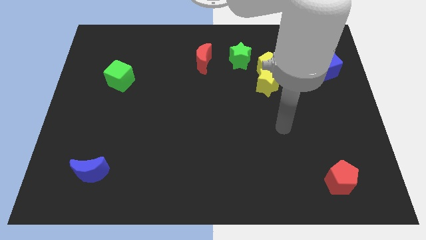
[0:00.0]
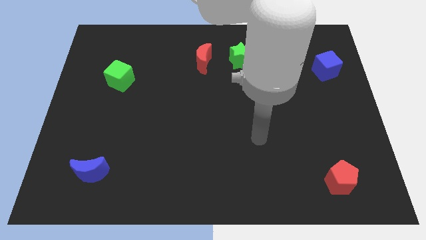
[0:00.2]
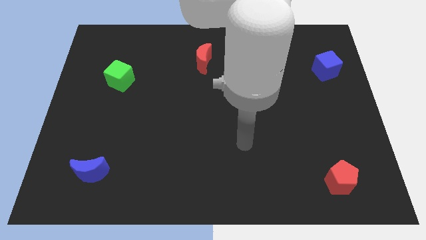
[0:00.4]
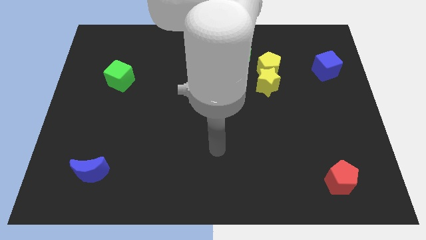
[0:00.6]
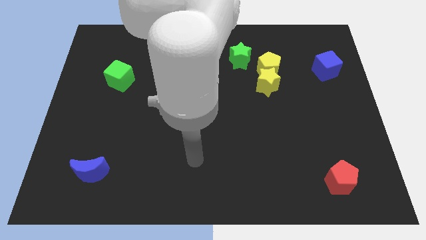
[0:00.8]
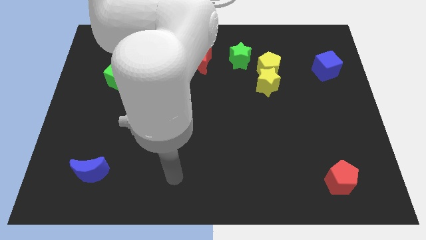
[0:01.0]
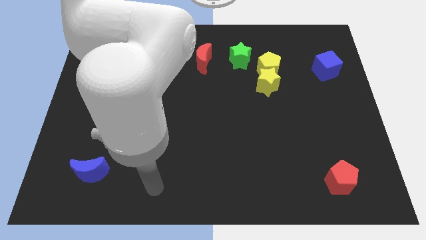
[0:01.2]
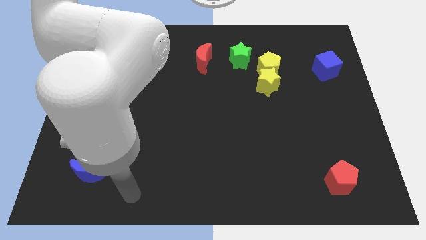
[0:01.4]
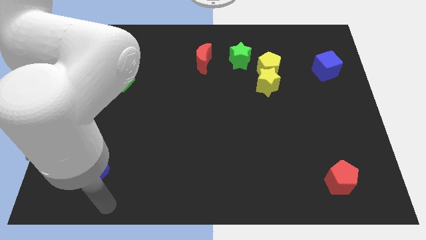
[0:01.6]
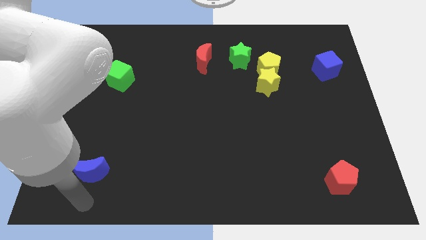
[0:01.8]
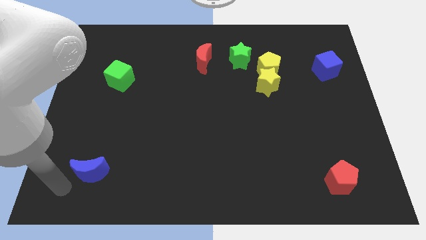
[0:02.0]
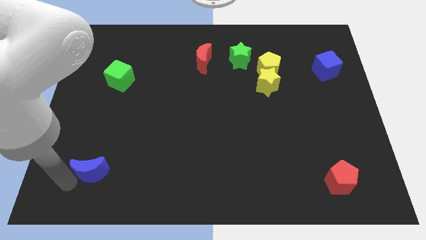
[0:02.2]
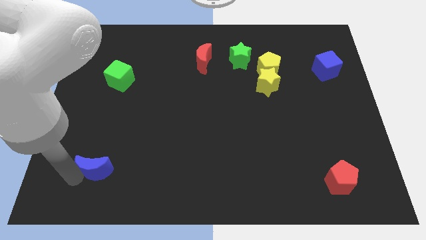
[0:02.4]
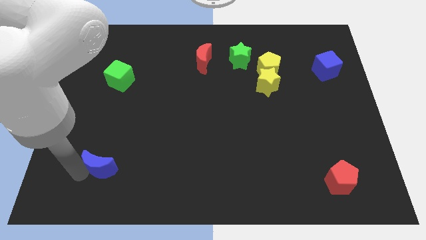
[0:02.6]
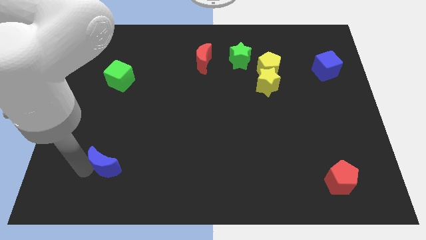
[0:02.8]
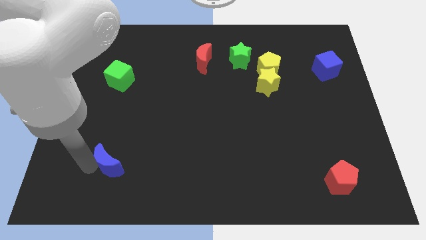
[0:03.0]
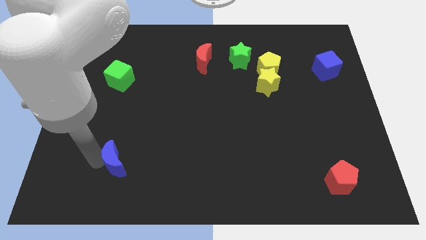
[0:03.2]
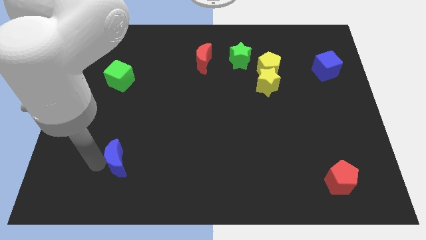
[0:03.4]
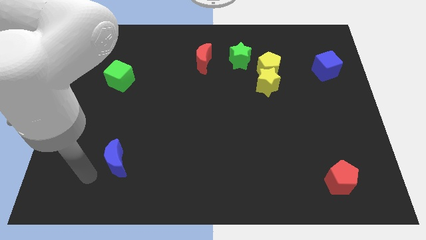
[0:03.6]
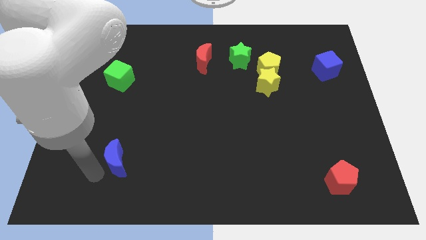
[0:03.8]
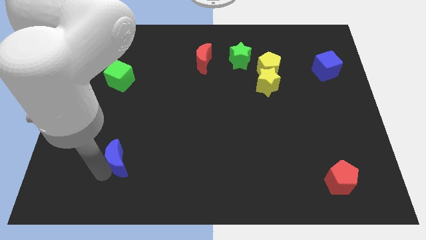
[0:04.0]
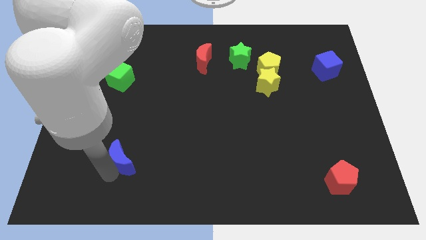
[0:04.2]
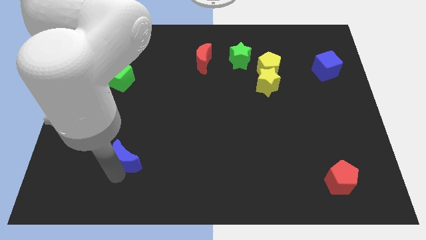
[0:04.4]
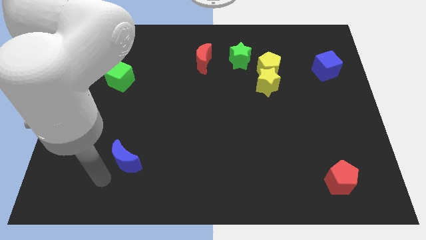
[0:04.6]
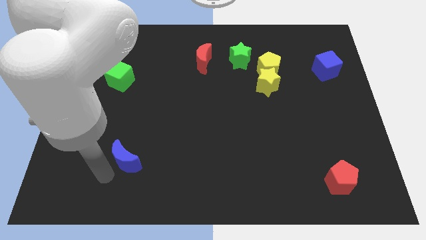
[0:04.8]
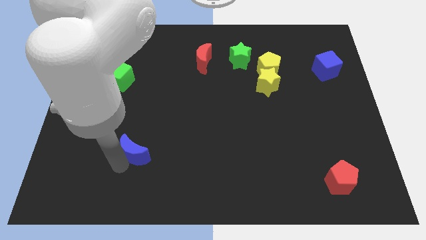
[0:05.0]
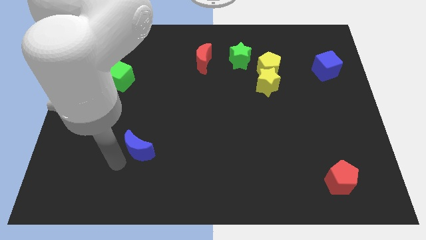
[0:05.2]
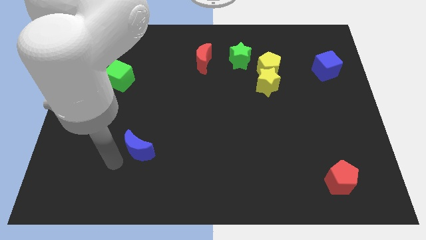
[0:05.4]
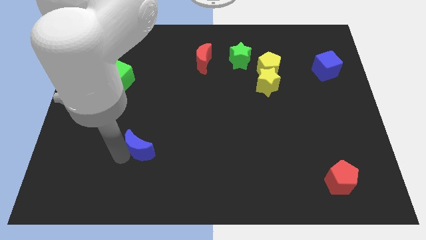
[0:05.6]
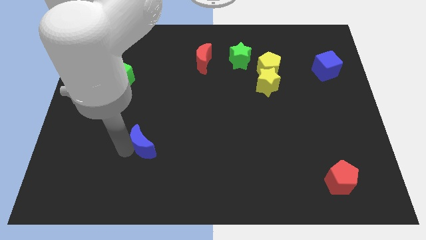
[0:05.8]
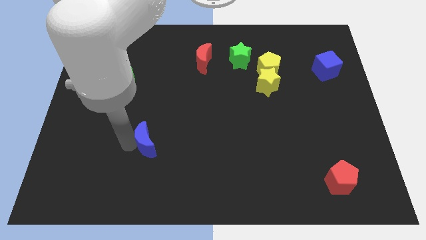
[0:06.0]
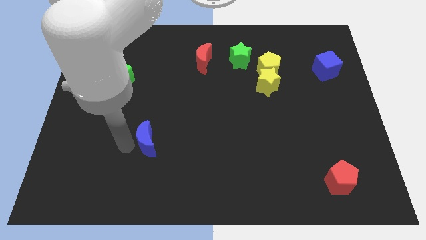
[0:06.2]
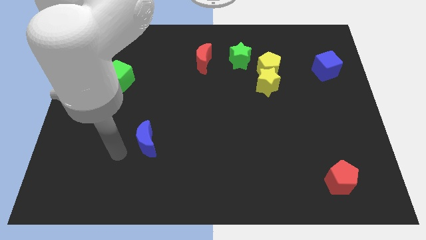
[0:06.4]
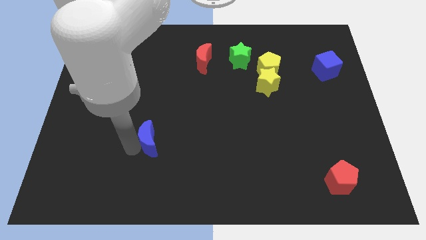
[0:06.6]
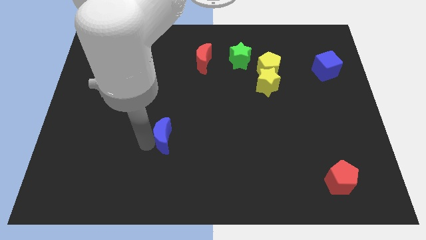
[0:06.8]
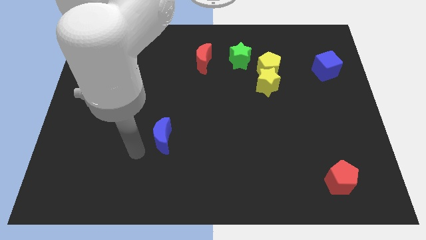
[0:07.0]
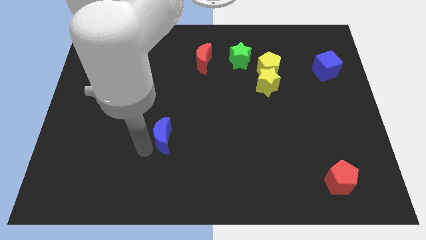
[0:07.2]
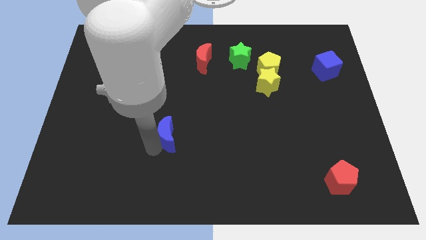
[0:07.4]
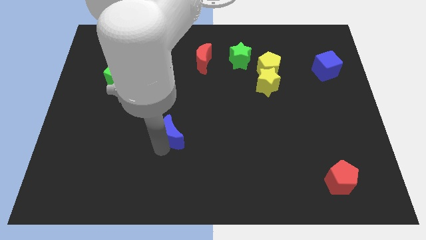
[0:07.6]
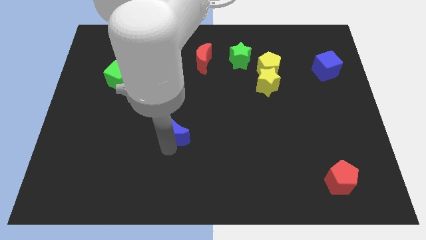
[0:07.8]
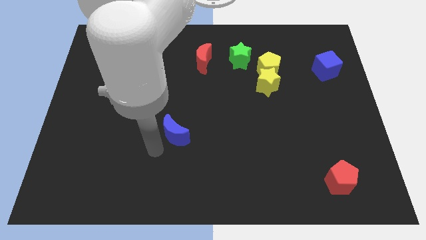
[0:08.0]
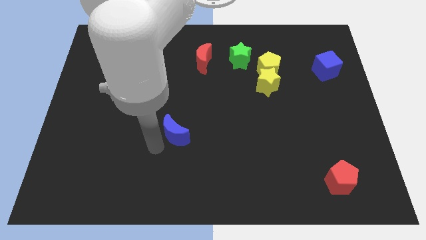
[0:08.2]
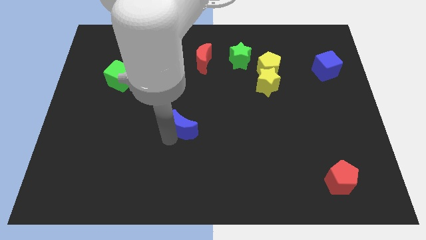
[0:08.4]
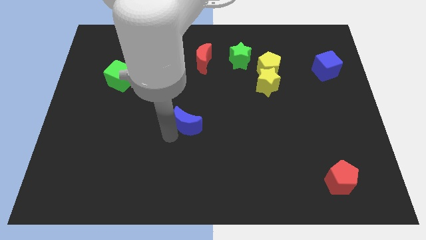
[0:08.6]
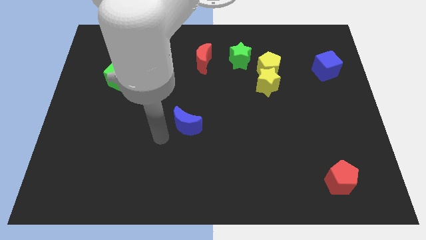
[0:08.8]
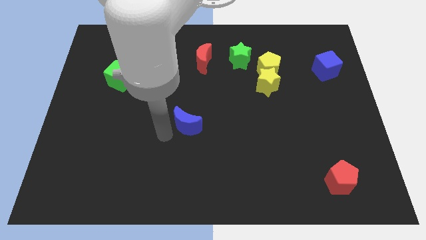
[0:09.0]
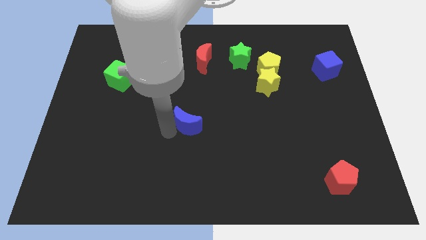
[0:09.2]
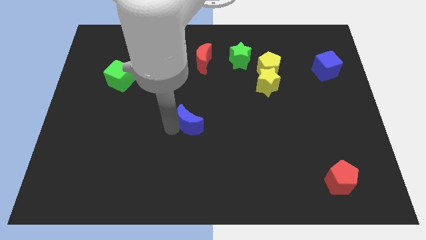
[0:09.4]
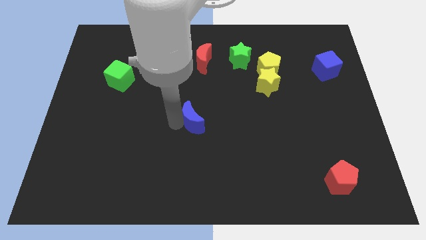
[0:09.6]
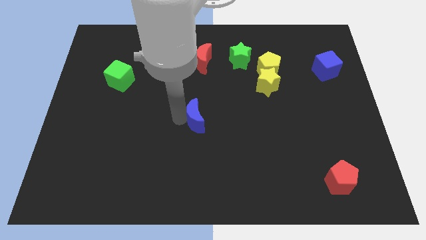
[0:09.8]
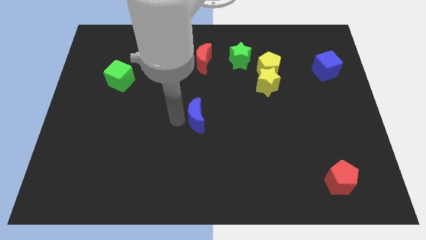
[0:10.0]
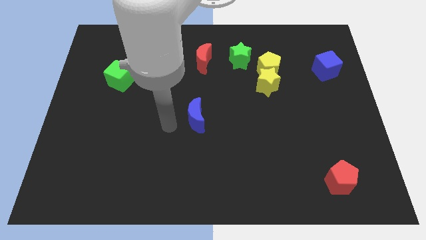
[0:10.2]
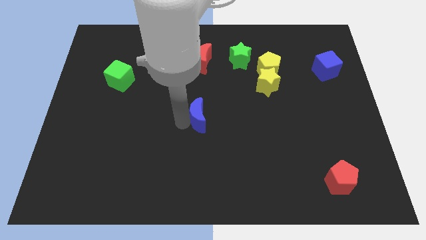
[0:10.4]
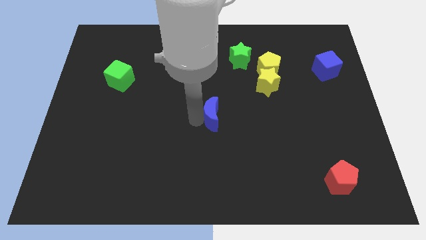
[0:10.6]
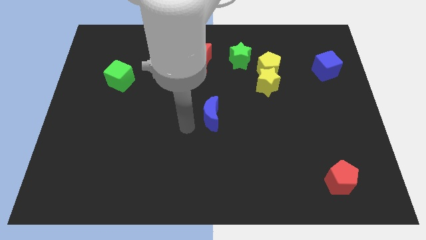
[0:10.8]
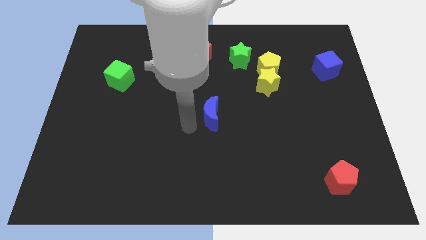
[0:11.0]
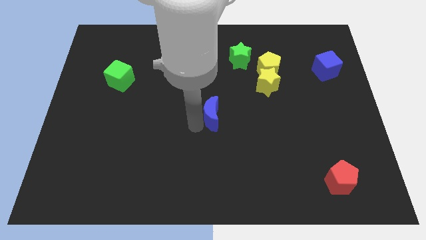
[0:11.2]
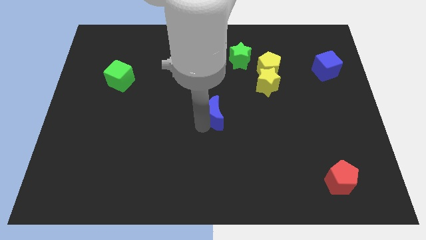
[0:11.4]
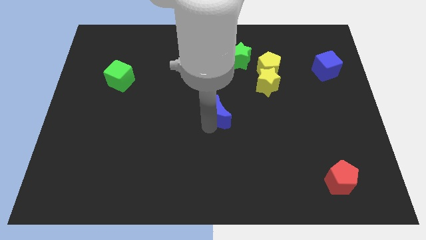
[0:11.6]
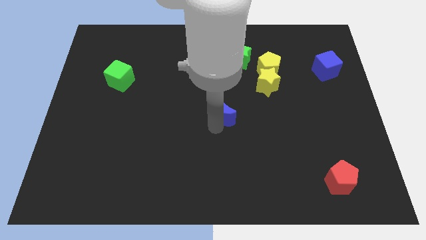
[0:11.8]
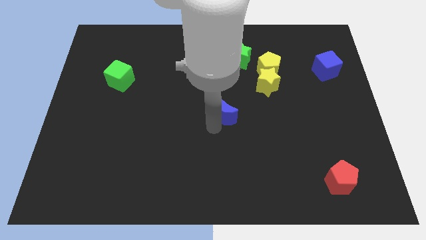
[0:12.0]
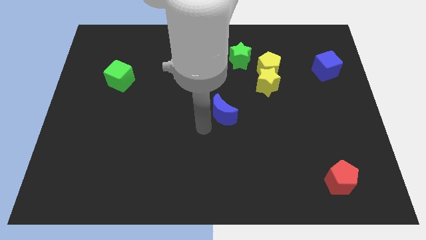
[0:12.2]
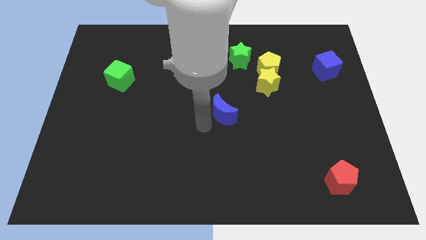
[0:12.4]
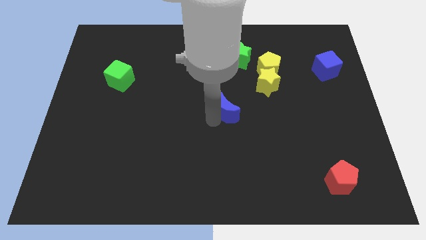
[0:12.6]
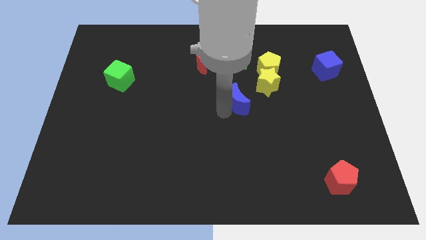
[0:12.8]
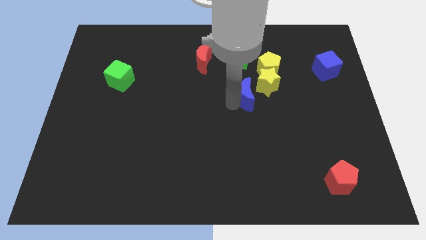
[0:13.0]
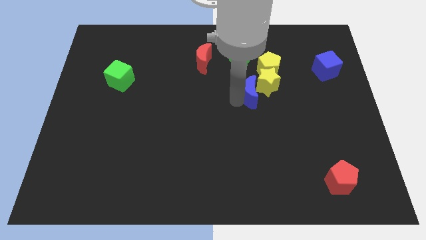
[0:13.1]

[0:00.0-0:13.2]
push the blue moon close to the yellow star
